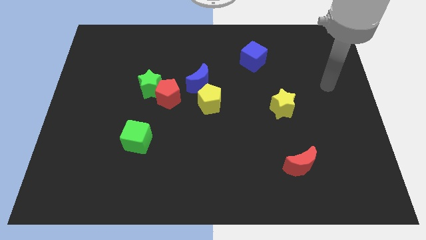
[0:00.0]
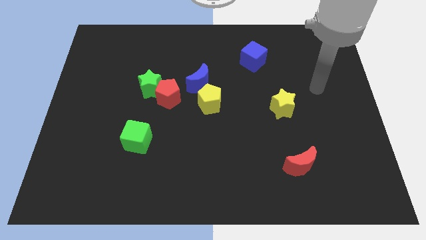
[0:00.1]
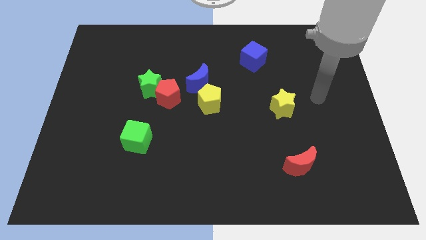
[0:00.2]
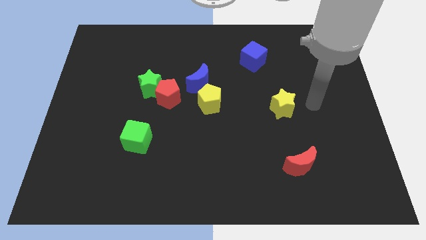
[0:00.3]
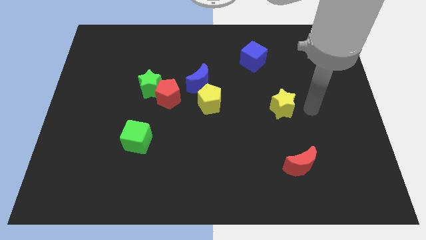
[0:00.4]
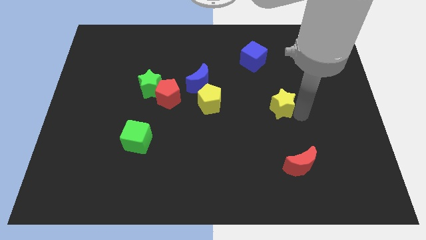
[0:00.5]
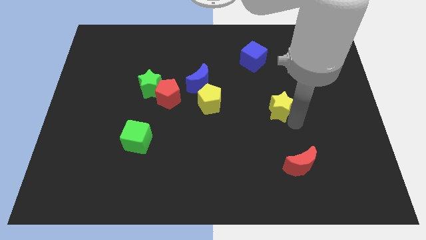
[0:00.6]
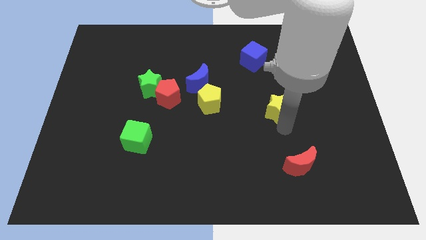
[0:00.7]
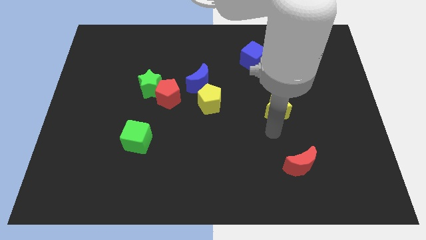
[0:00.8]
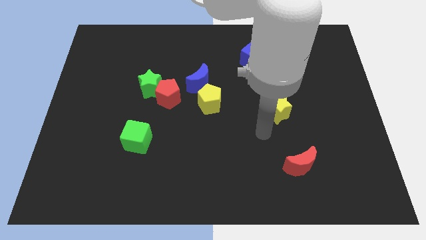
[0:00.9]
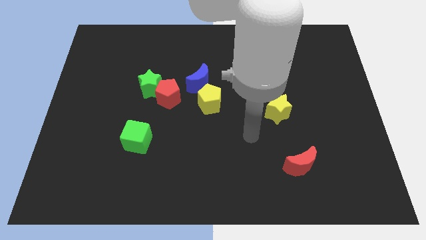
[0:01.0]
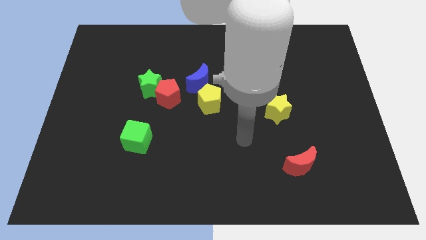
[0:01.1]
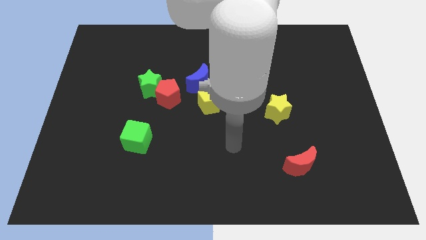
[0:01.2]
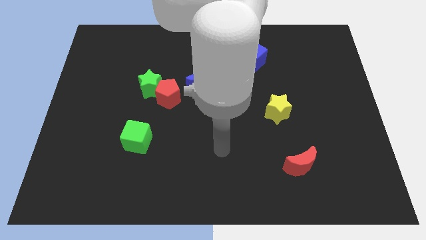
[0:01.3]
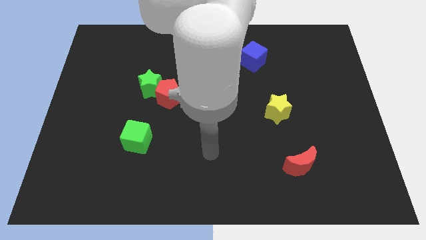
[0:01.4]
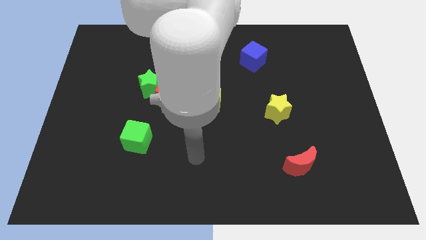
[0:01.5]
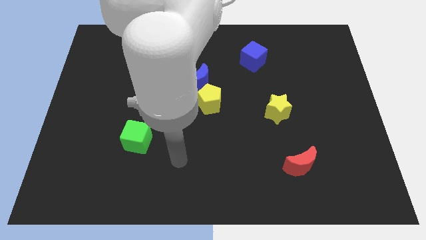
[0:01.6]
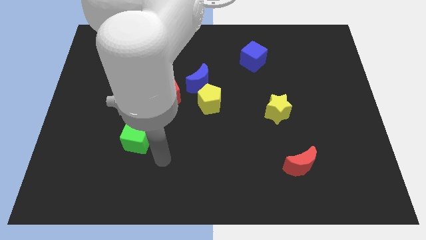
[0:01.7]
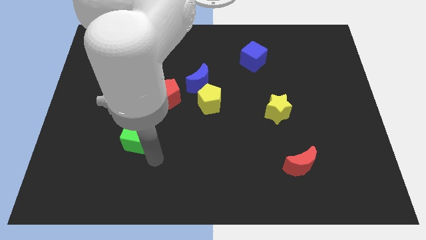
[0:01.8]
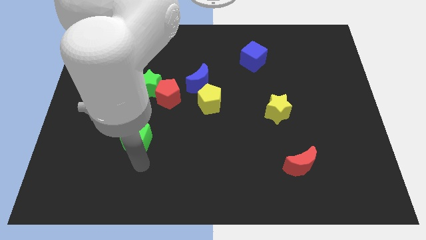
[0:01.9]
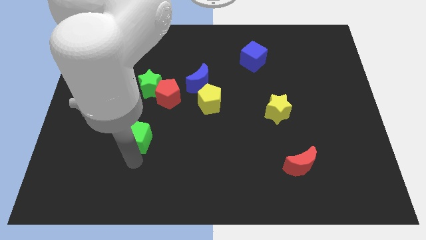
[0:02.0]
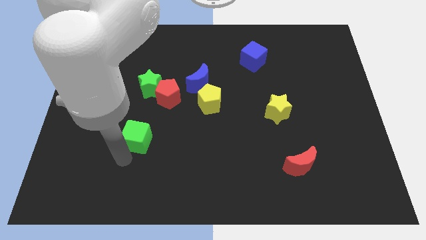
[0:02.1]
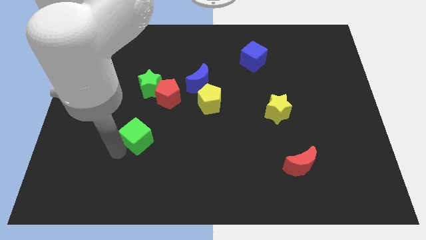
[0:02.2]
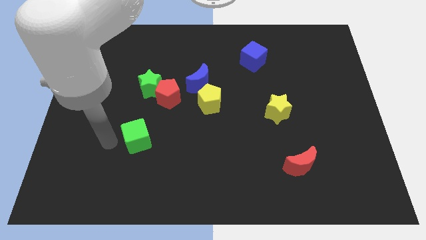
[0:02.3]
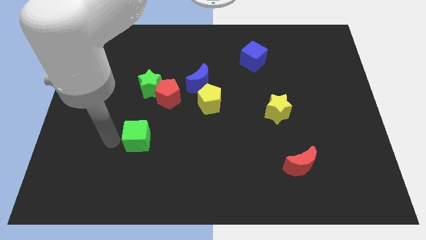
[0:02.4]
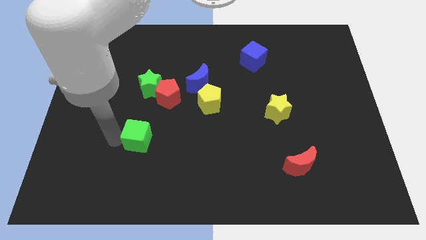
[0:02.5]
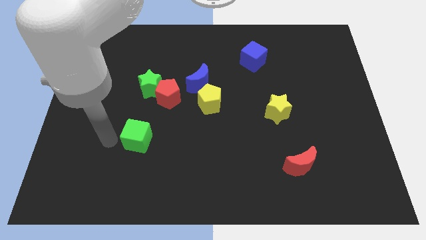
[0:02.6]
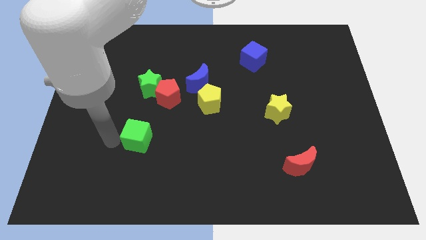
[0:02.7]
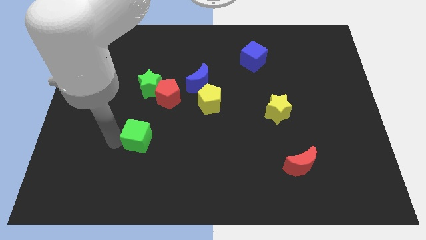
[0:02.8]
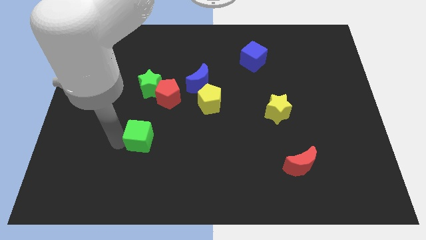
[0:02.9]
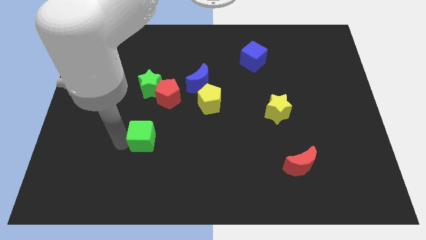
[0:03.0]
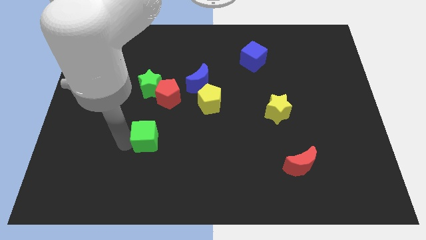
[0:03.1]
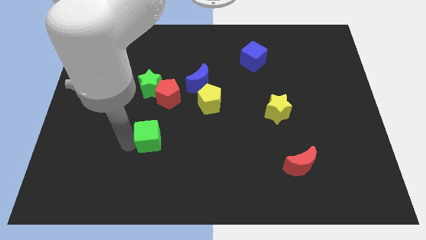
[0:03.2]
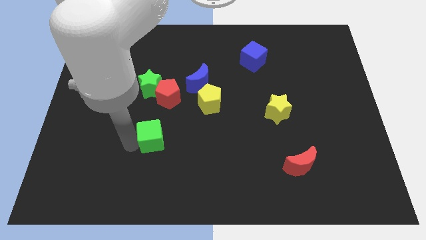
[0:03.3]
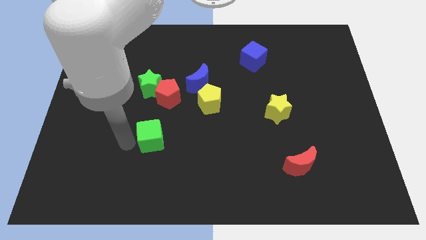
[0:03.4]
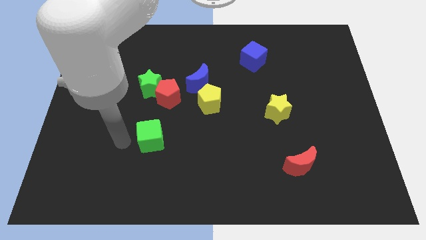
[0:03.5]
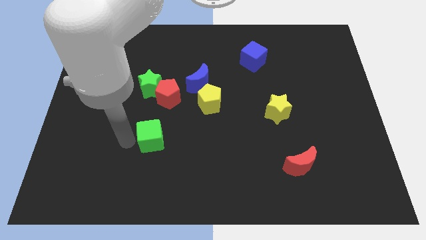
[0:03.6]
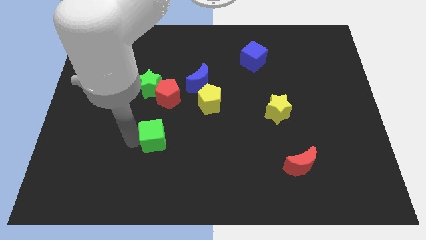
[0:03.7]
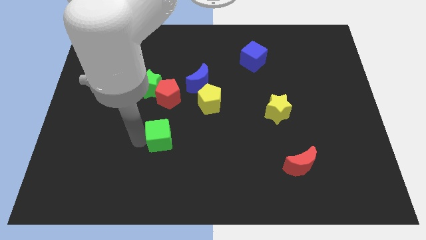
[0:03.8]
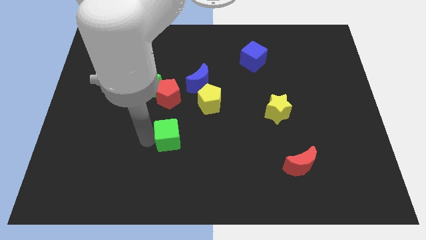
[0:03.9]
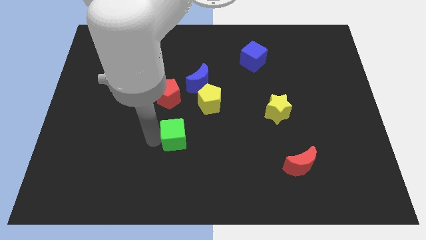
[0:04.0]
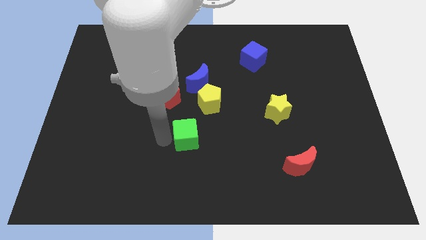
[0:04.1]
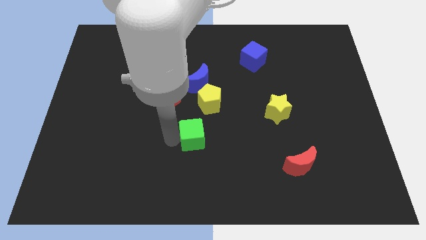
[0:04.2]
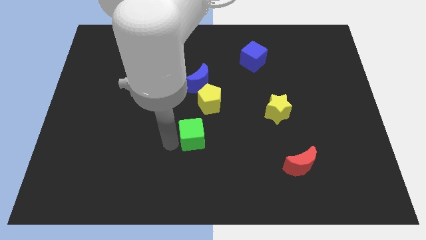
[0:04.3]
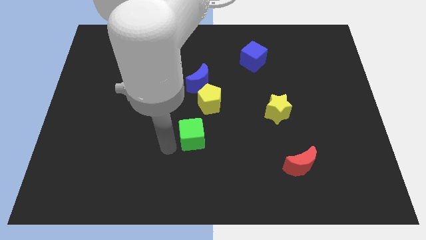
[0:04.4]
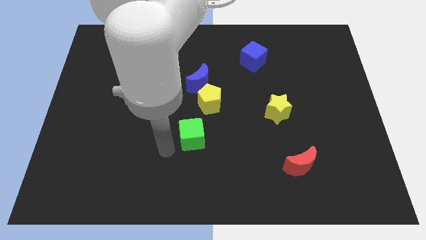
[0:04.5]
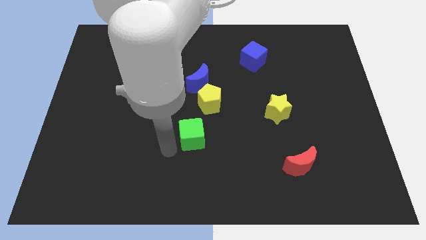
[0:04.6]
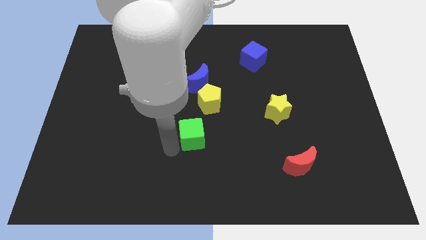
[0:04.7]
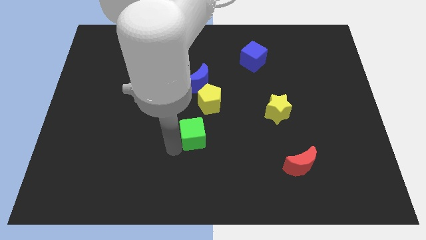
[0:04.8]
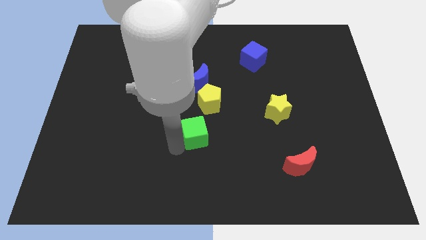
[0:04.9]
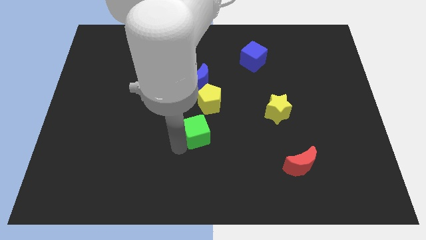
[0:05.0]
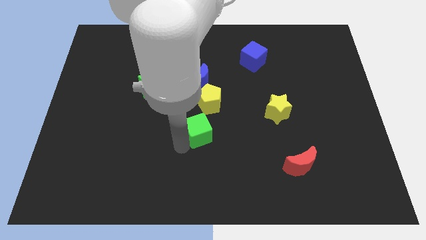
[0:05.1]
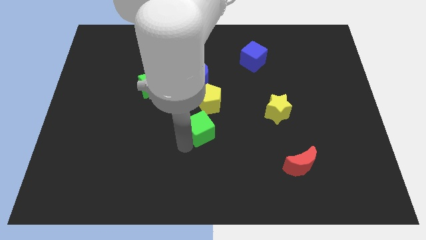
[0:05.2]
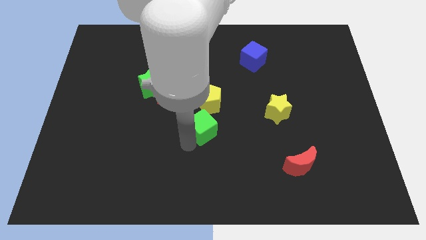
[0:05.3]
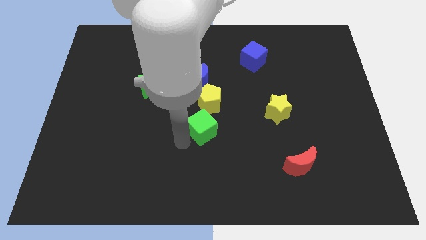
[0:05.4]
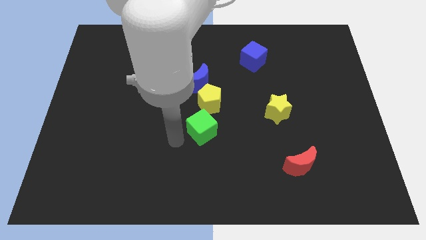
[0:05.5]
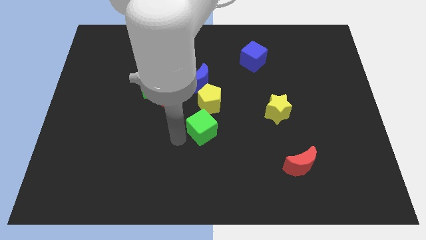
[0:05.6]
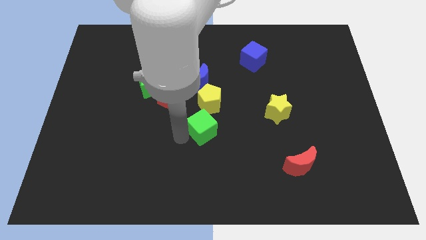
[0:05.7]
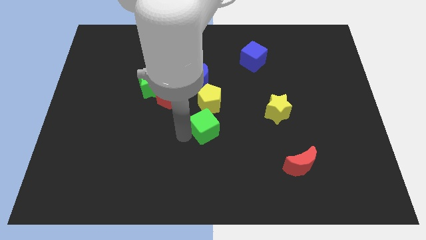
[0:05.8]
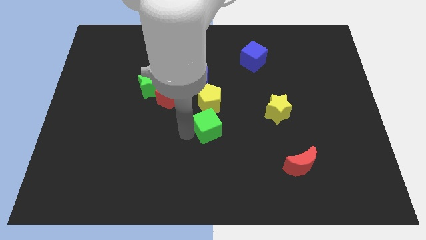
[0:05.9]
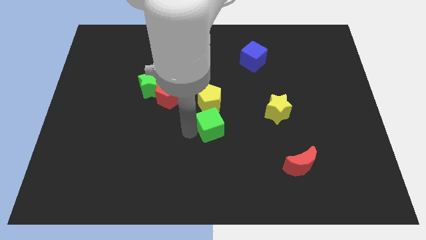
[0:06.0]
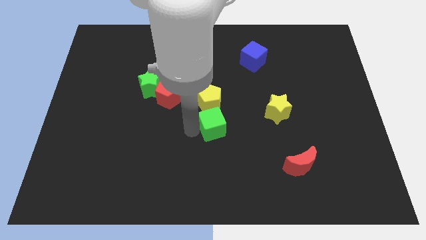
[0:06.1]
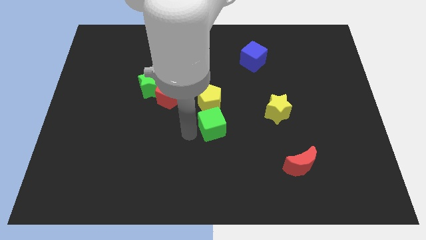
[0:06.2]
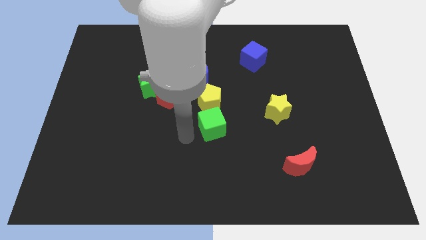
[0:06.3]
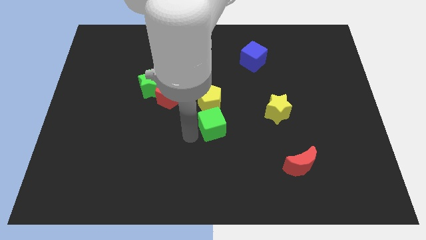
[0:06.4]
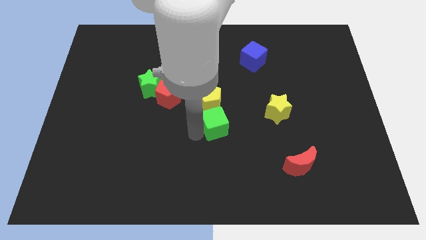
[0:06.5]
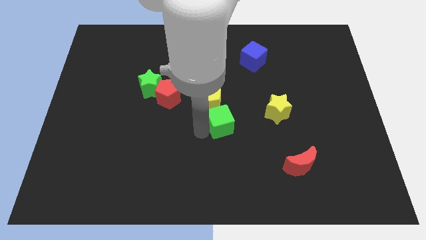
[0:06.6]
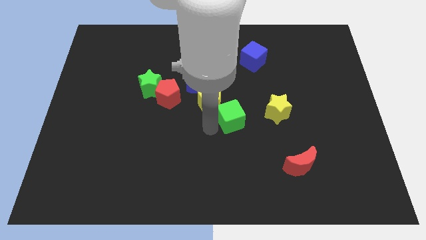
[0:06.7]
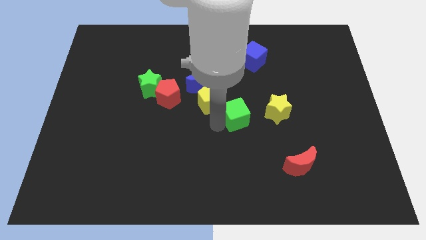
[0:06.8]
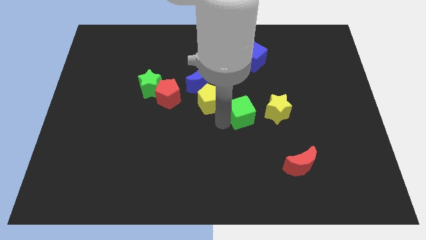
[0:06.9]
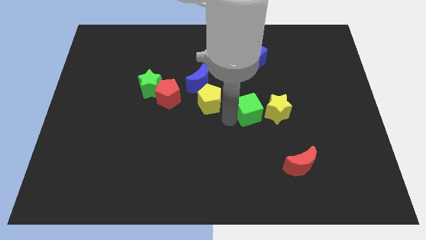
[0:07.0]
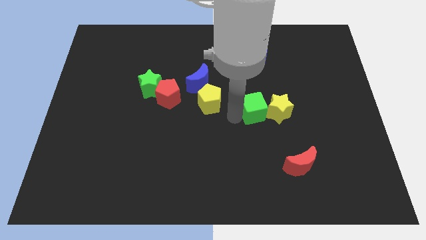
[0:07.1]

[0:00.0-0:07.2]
slide the green cube next to the yellow star

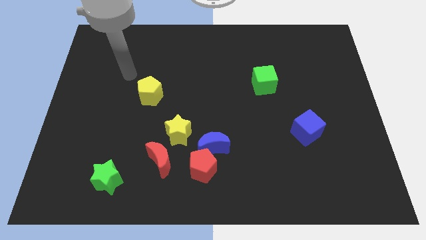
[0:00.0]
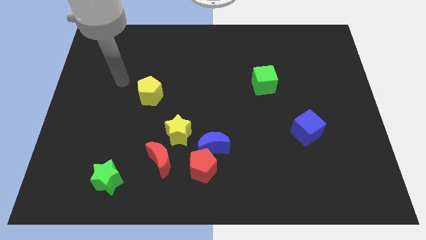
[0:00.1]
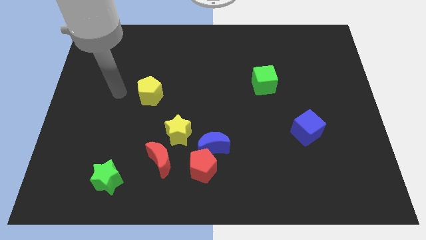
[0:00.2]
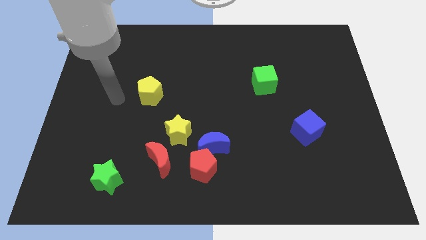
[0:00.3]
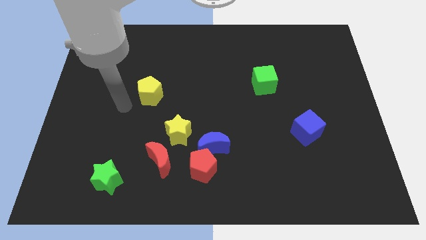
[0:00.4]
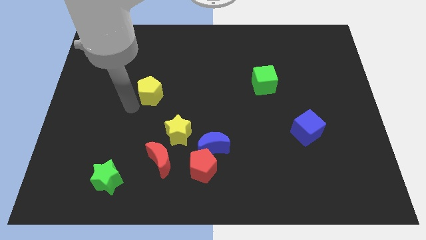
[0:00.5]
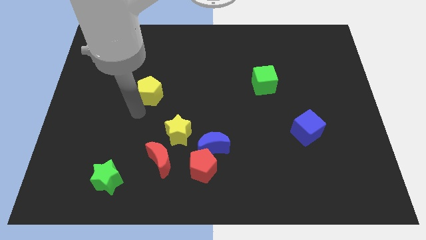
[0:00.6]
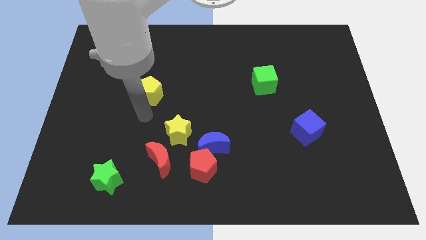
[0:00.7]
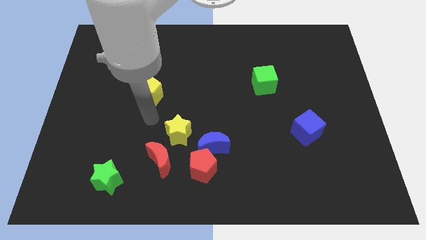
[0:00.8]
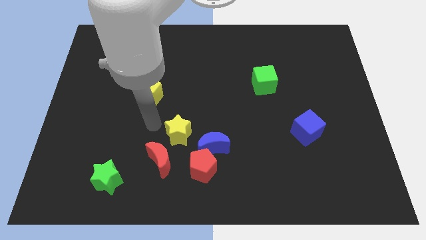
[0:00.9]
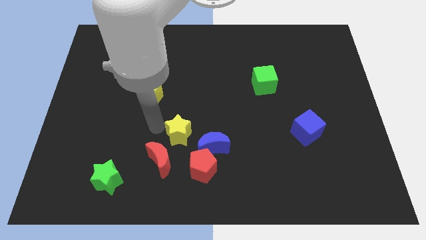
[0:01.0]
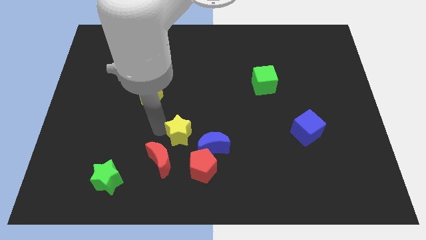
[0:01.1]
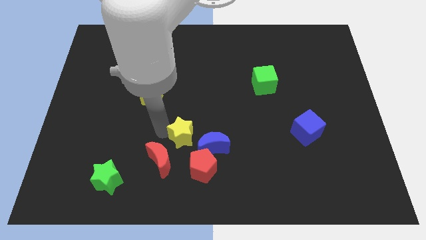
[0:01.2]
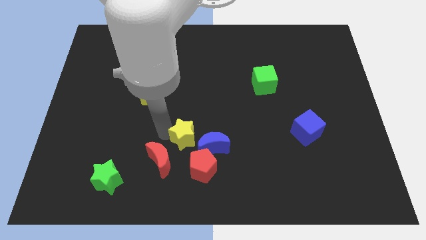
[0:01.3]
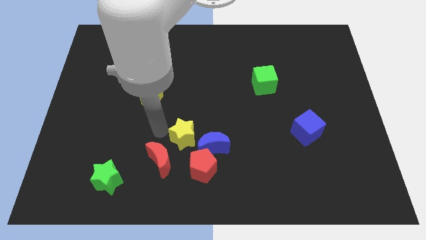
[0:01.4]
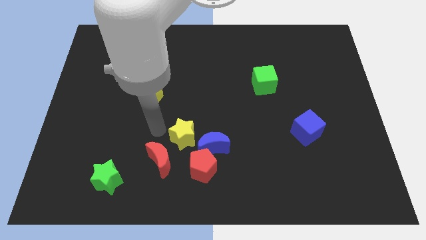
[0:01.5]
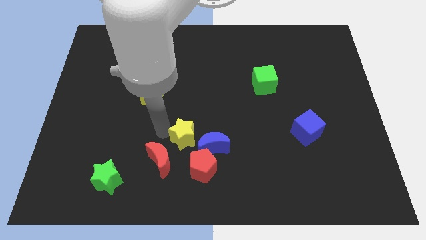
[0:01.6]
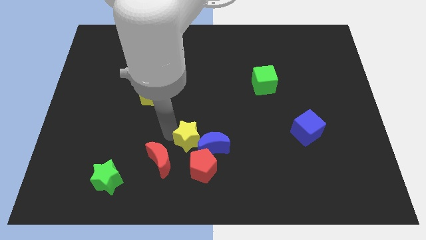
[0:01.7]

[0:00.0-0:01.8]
move the yellow star to the blue moon
